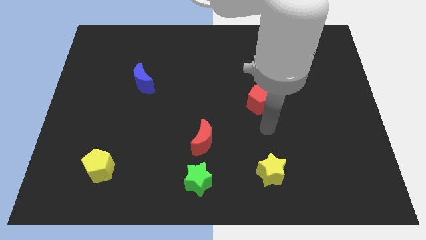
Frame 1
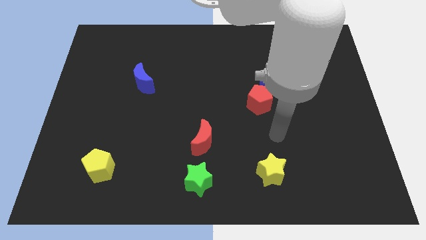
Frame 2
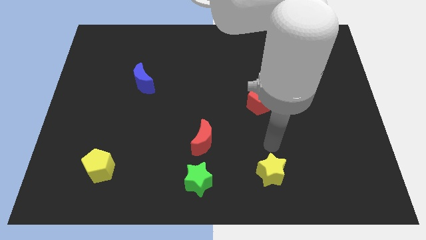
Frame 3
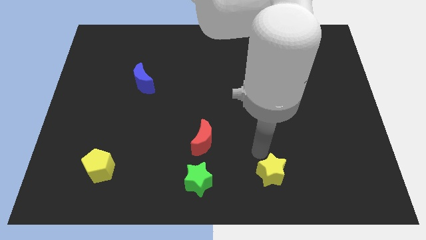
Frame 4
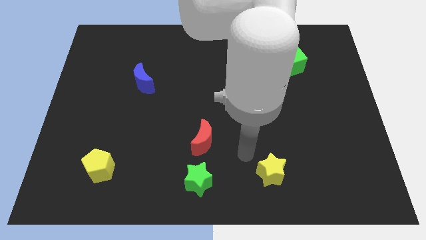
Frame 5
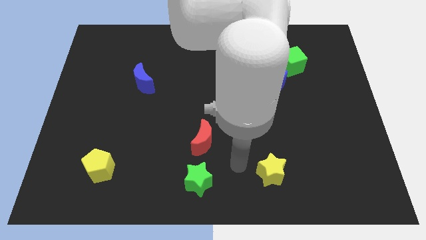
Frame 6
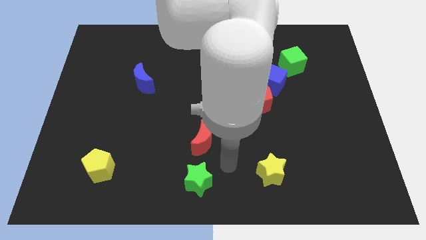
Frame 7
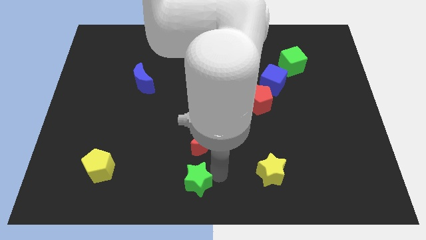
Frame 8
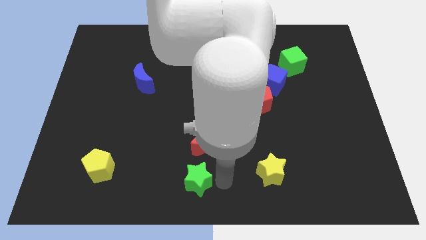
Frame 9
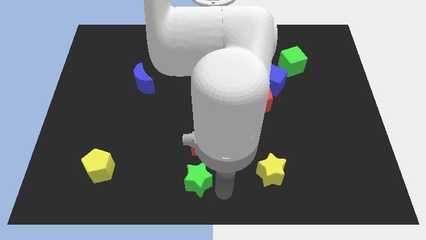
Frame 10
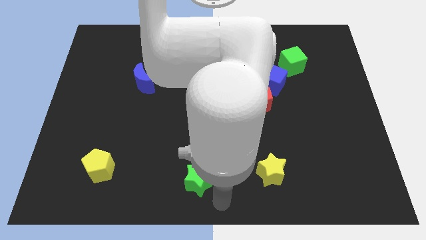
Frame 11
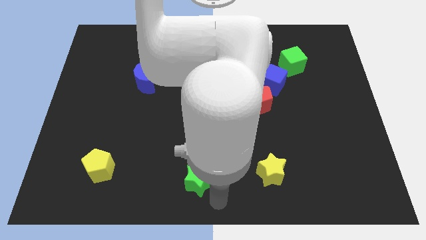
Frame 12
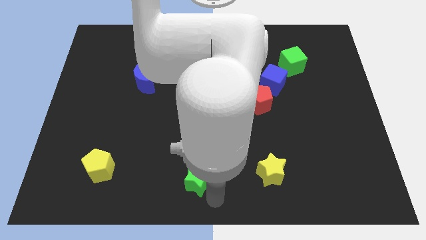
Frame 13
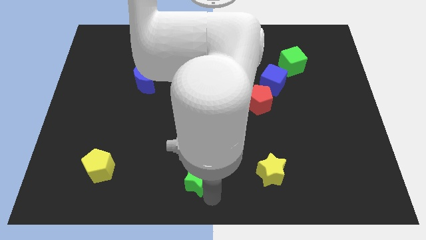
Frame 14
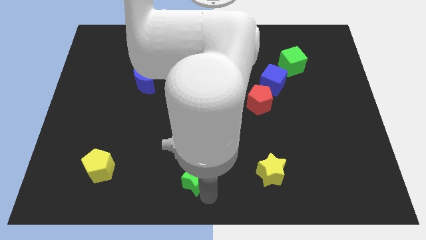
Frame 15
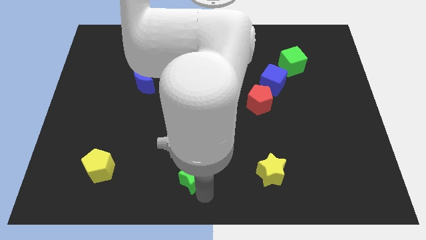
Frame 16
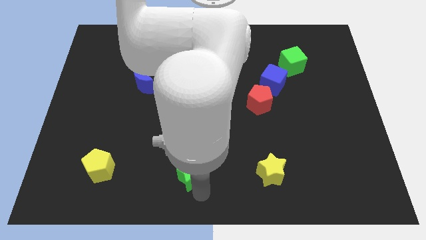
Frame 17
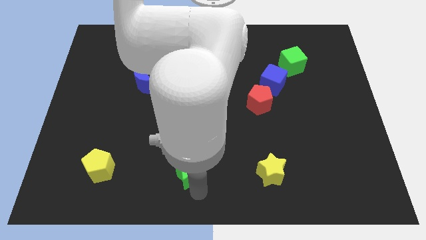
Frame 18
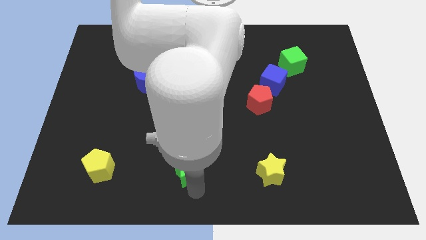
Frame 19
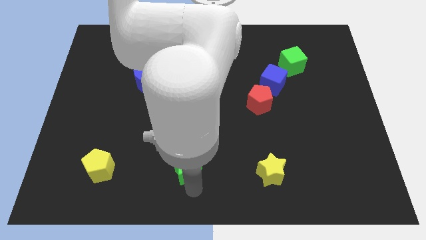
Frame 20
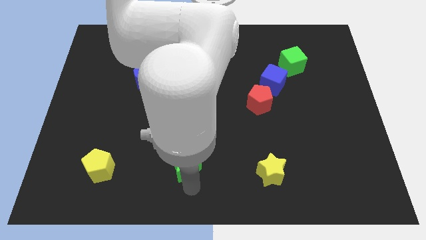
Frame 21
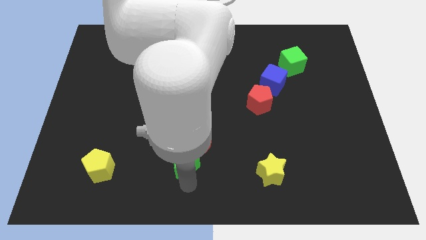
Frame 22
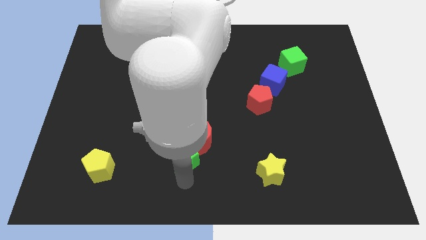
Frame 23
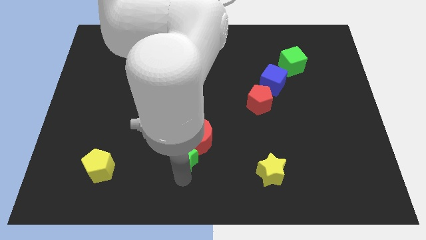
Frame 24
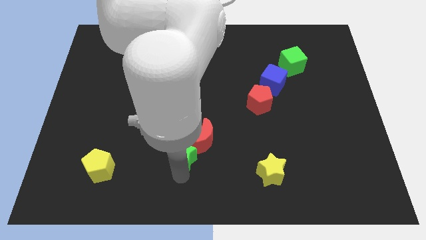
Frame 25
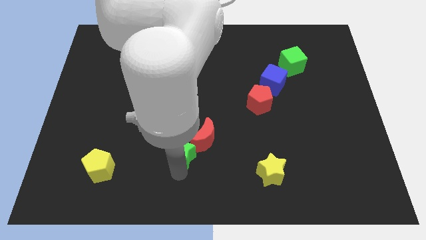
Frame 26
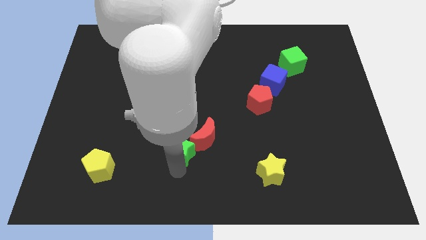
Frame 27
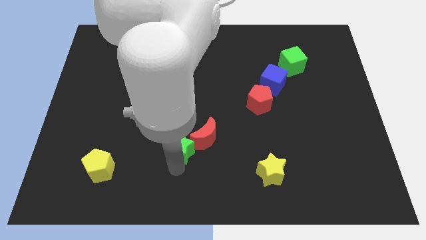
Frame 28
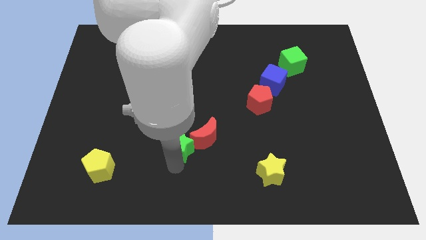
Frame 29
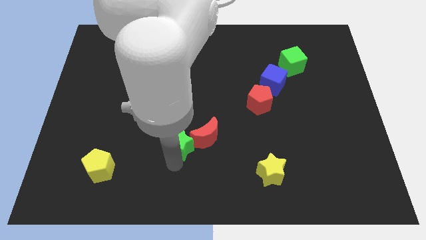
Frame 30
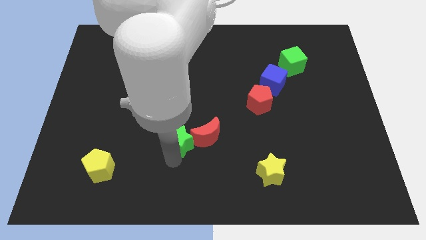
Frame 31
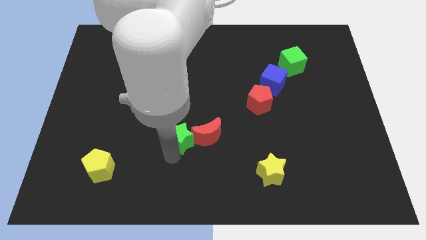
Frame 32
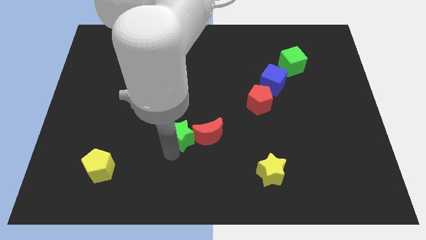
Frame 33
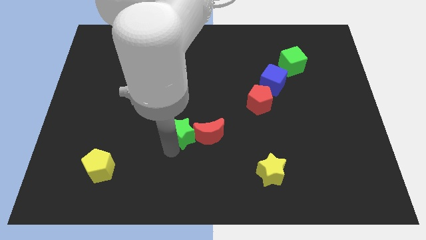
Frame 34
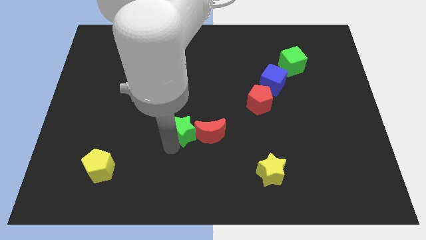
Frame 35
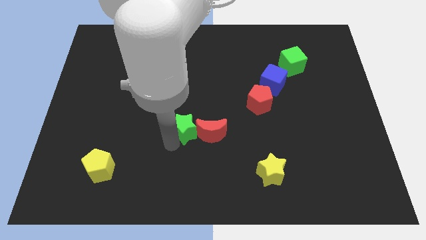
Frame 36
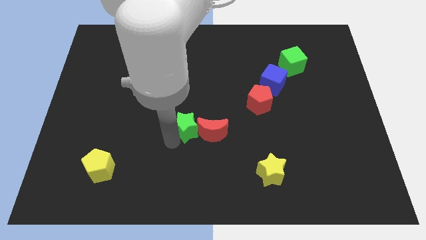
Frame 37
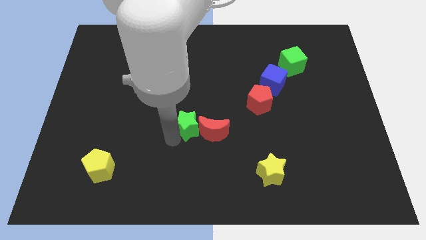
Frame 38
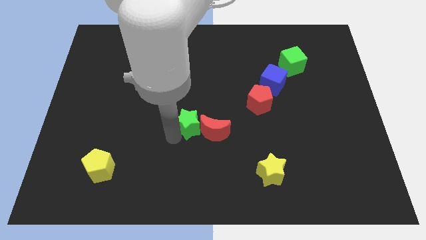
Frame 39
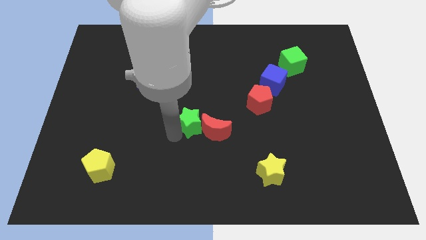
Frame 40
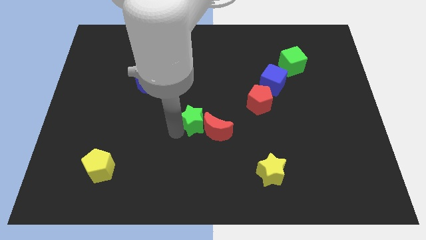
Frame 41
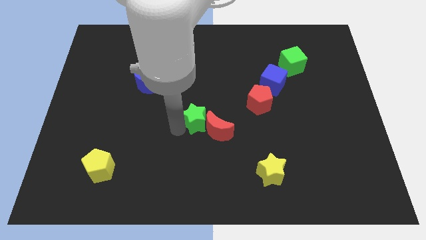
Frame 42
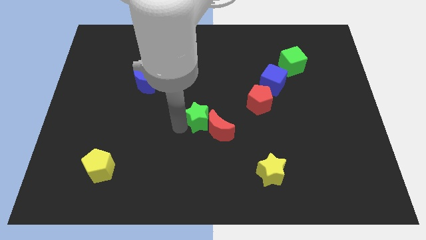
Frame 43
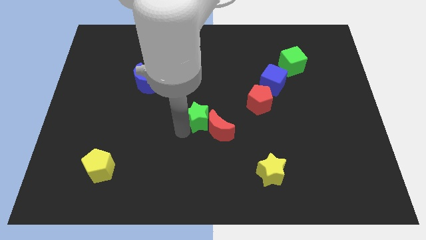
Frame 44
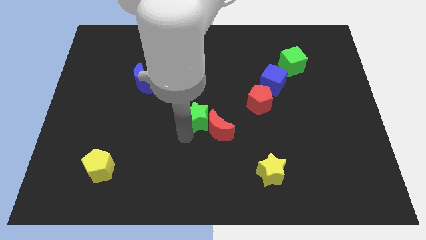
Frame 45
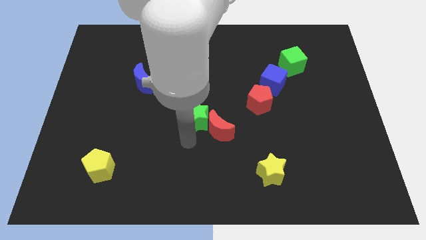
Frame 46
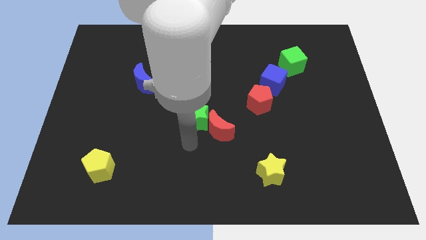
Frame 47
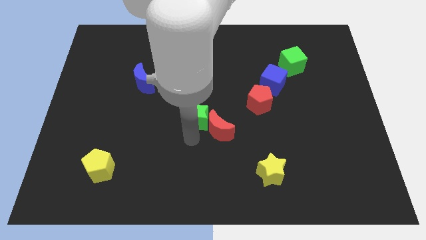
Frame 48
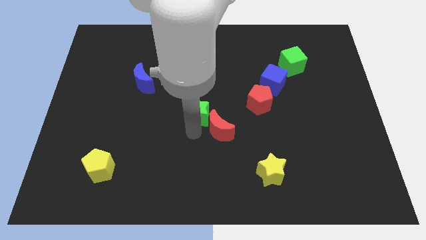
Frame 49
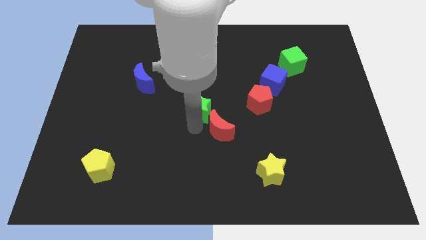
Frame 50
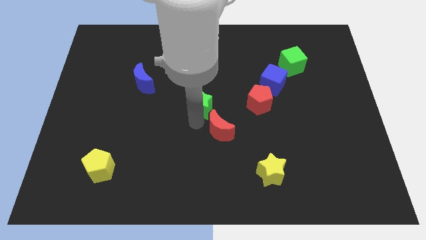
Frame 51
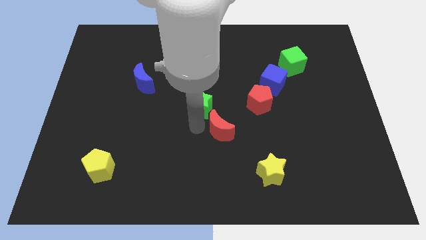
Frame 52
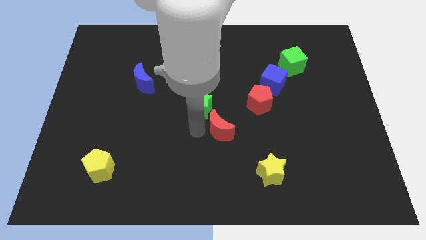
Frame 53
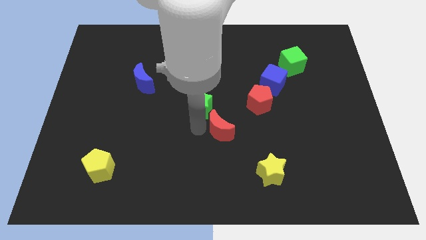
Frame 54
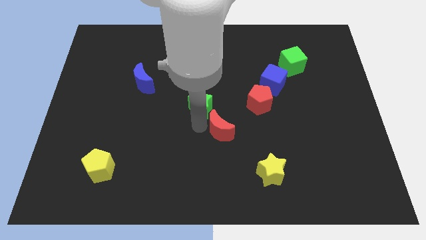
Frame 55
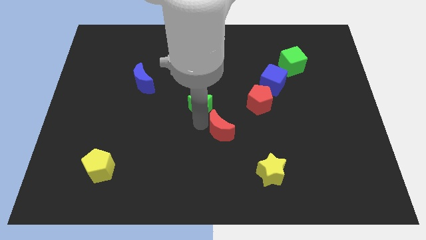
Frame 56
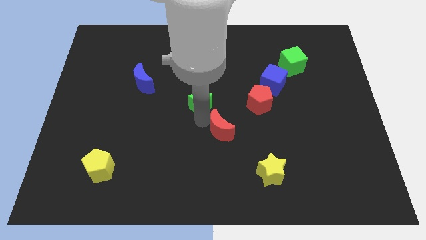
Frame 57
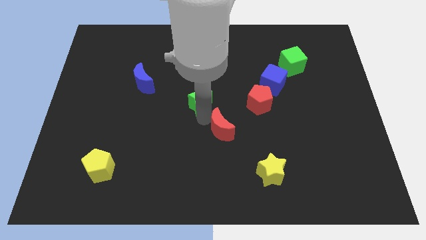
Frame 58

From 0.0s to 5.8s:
push the green star upwards

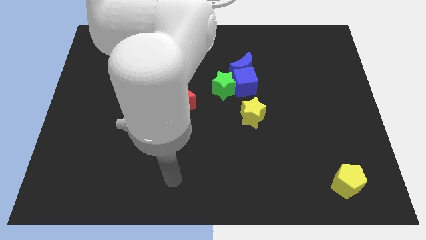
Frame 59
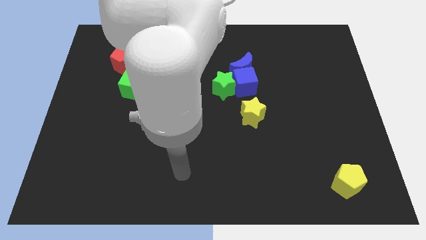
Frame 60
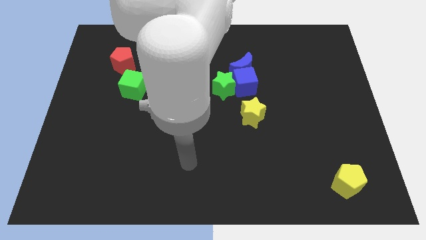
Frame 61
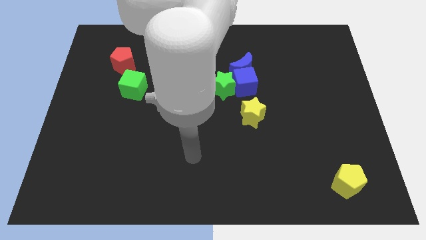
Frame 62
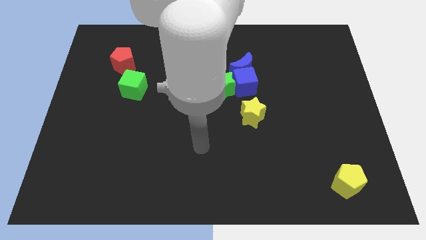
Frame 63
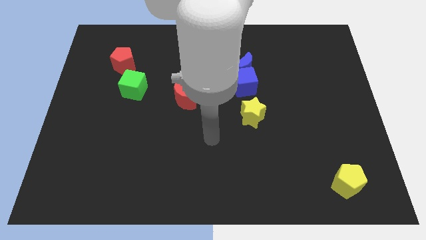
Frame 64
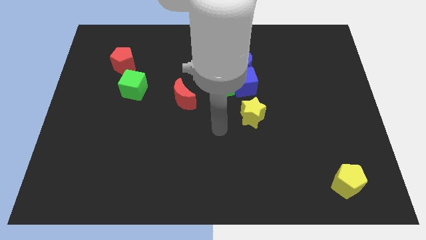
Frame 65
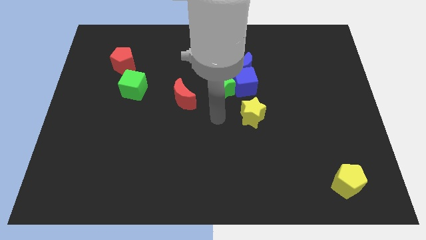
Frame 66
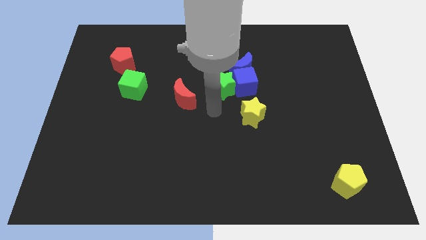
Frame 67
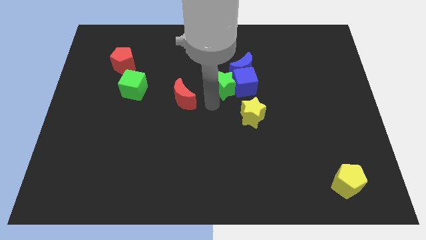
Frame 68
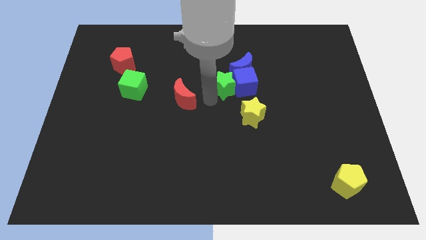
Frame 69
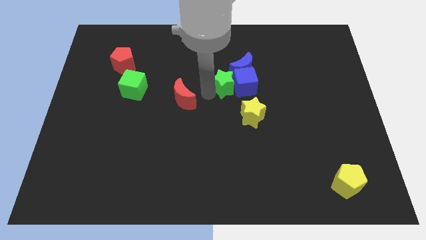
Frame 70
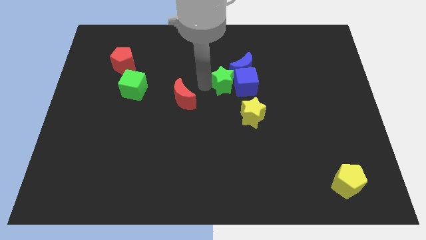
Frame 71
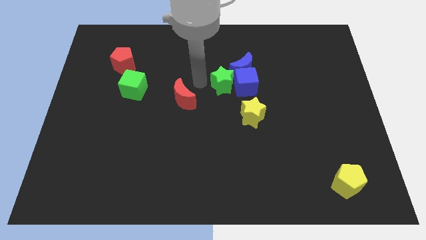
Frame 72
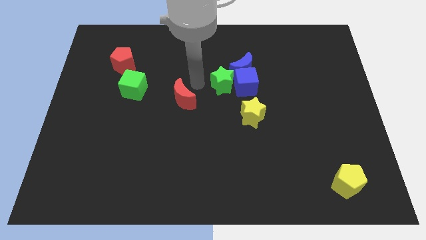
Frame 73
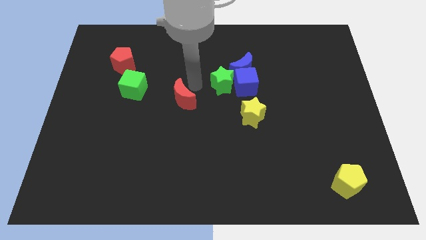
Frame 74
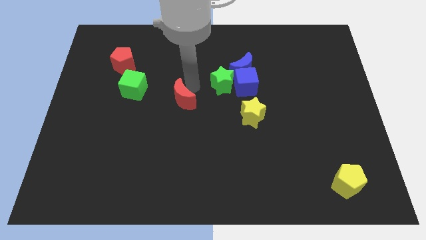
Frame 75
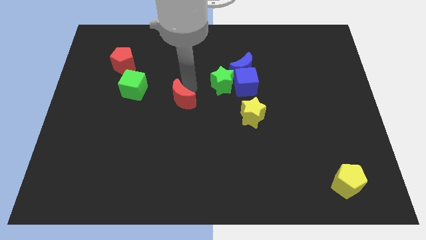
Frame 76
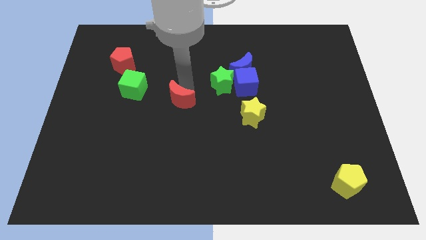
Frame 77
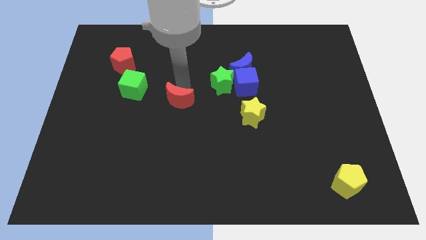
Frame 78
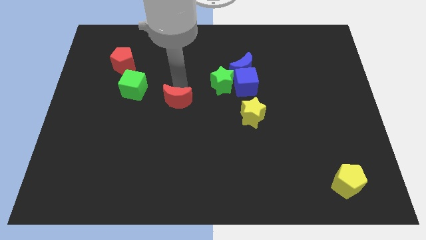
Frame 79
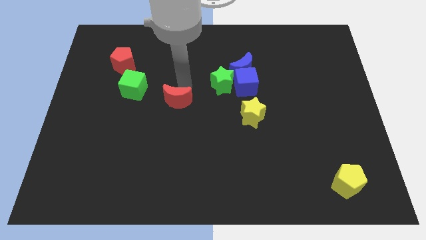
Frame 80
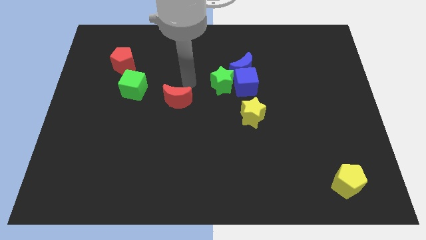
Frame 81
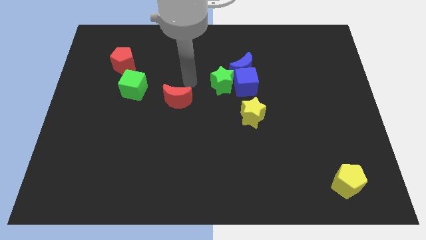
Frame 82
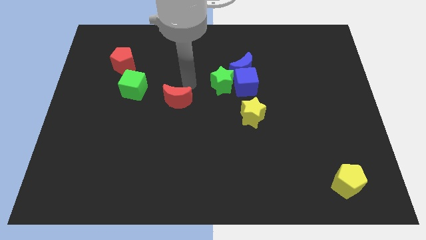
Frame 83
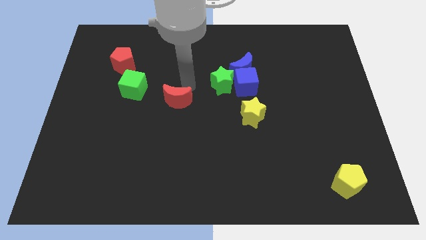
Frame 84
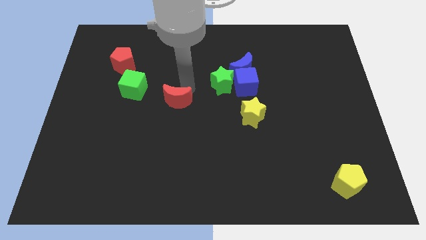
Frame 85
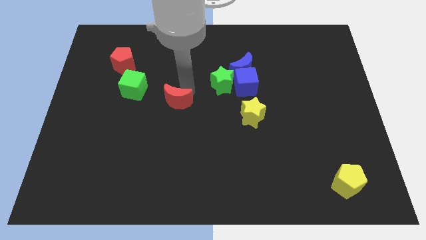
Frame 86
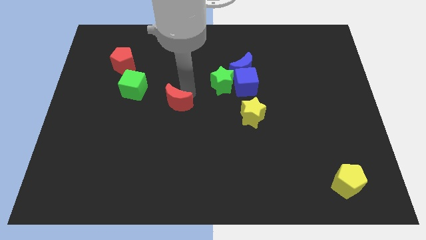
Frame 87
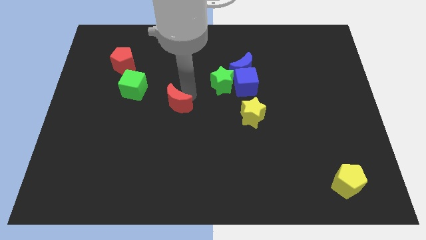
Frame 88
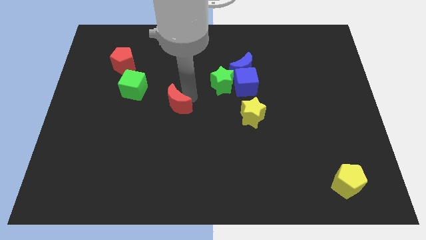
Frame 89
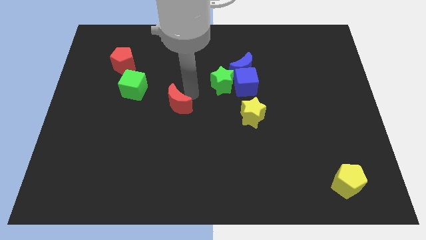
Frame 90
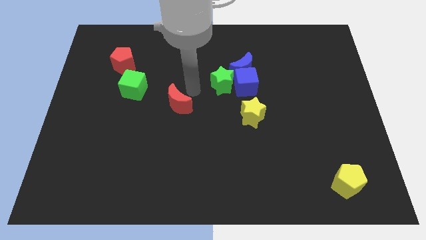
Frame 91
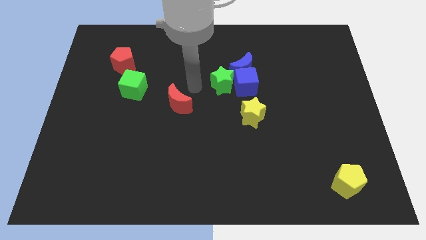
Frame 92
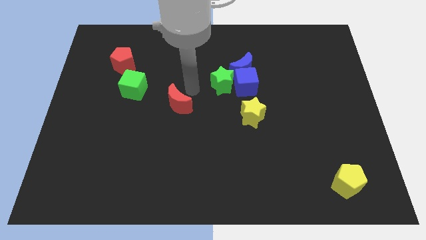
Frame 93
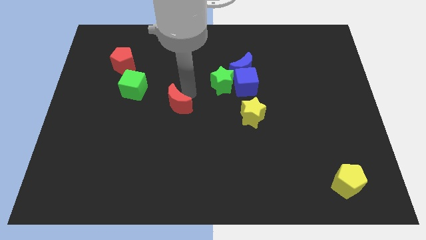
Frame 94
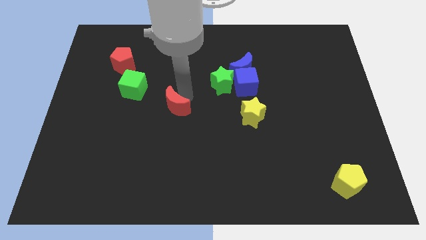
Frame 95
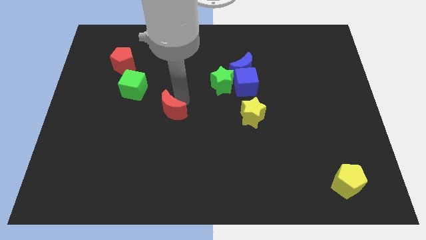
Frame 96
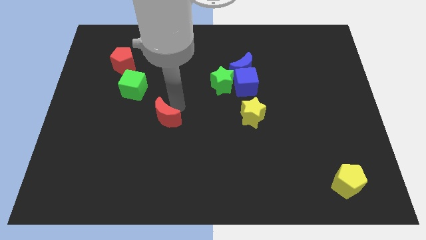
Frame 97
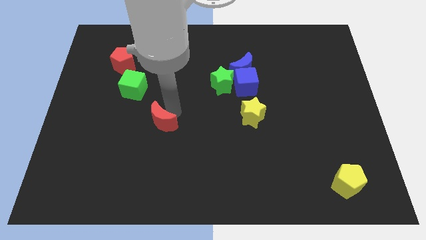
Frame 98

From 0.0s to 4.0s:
slightly push the red moon downwards and left
